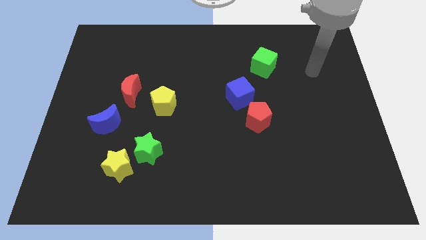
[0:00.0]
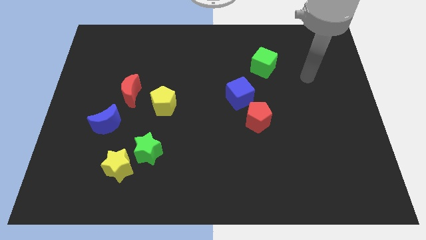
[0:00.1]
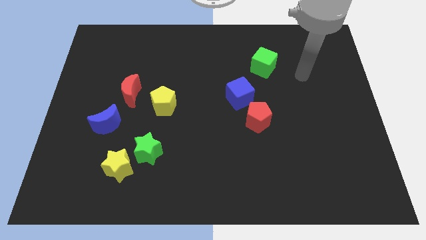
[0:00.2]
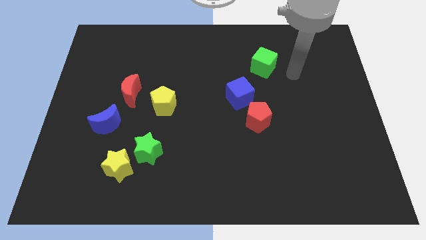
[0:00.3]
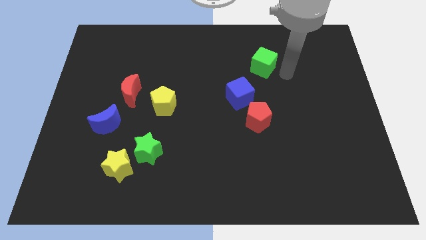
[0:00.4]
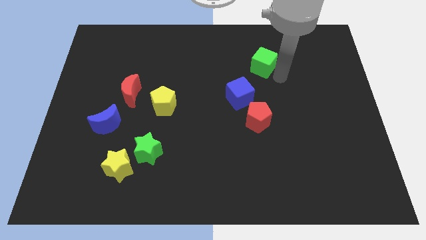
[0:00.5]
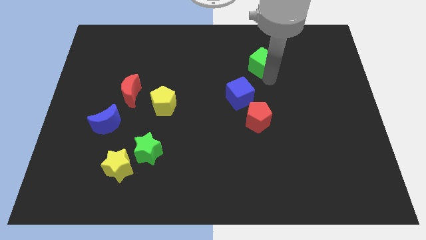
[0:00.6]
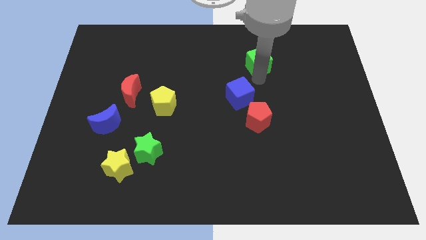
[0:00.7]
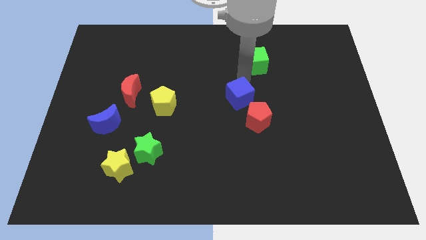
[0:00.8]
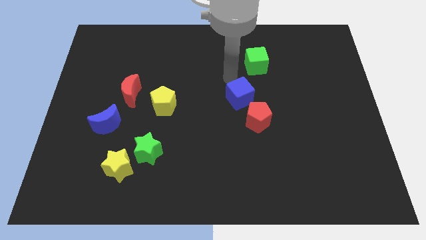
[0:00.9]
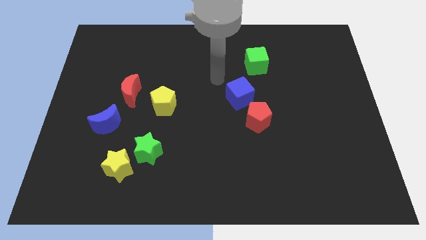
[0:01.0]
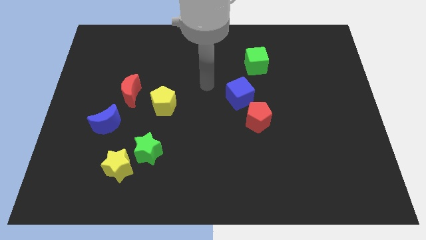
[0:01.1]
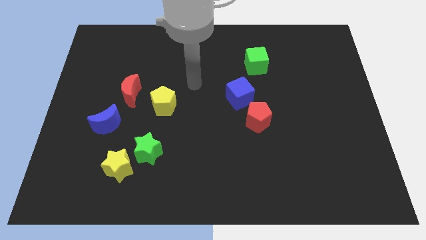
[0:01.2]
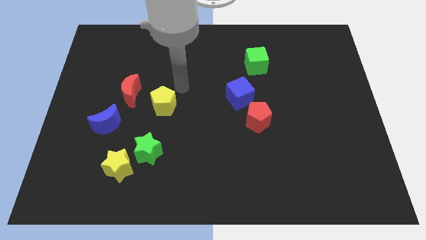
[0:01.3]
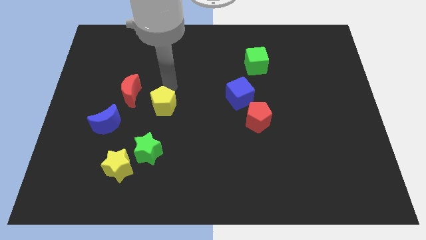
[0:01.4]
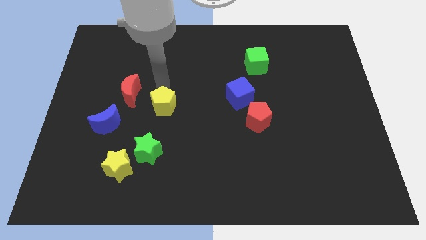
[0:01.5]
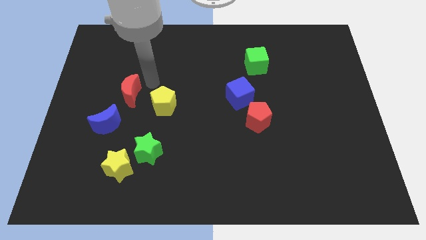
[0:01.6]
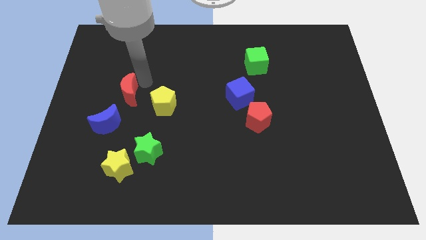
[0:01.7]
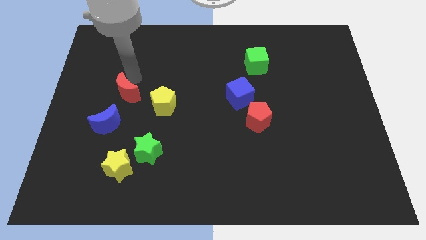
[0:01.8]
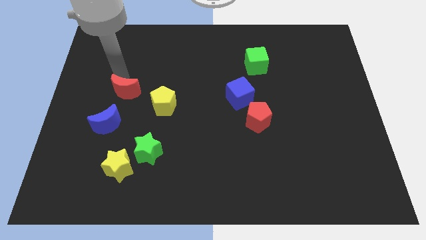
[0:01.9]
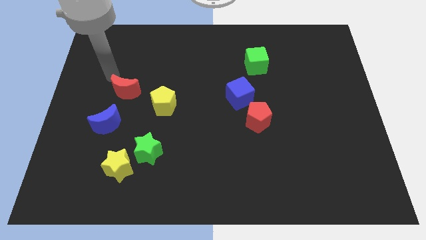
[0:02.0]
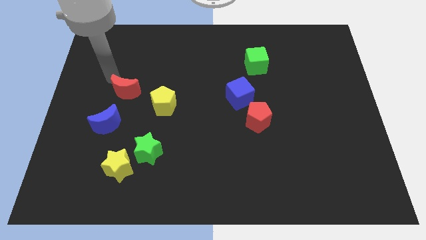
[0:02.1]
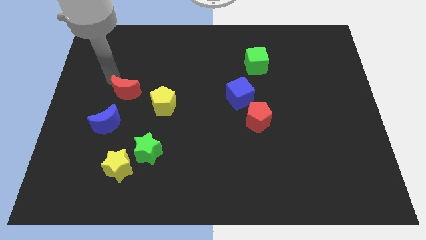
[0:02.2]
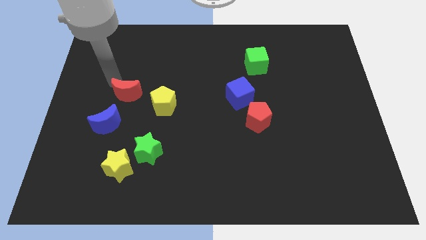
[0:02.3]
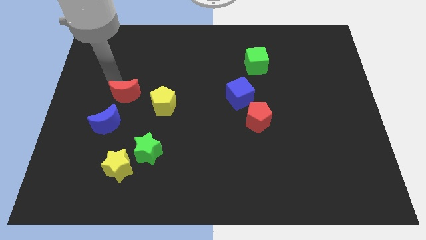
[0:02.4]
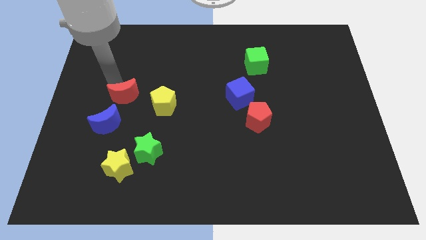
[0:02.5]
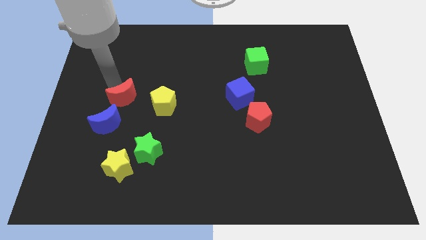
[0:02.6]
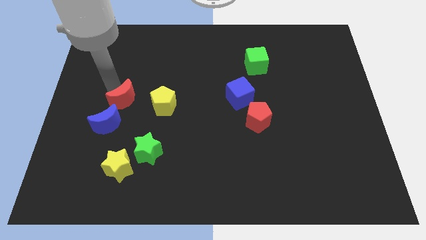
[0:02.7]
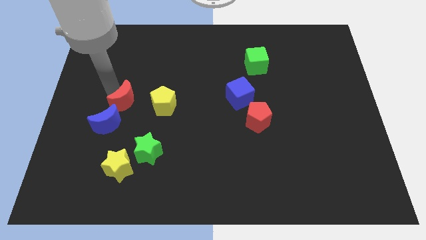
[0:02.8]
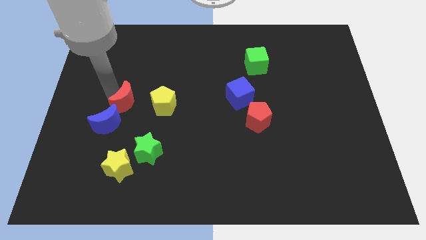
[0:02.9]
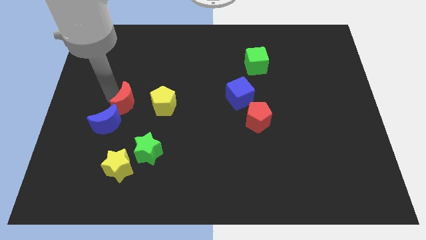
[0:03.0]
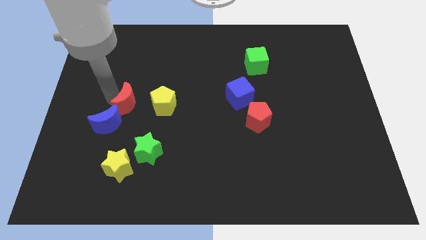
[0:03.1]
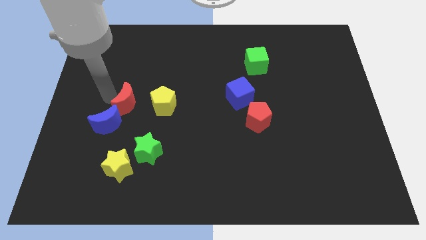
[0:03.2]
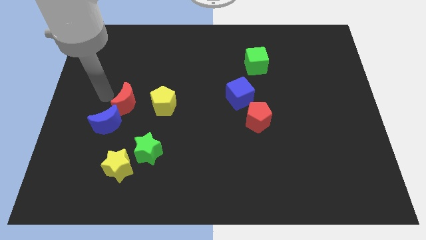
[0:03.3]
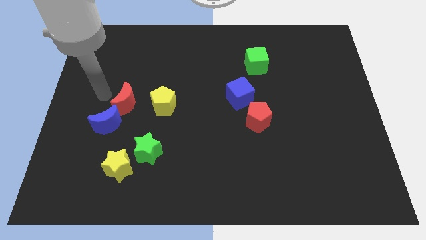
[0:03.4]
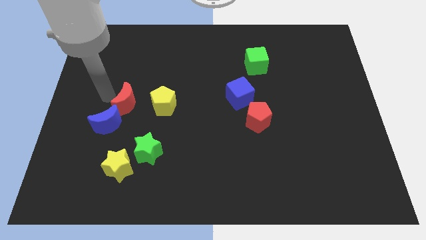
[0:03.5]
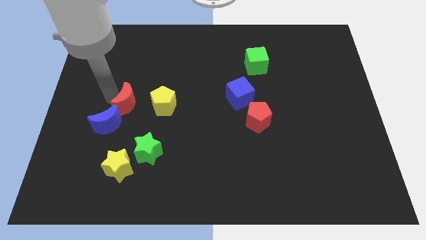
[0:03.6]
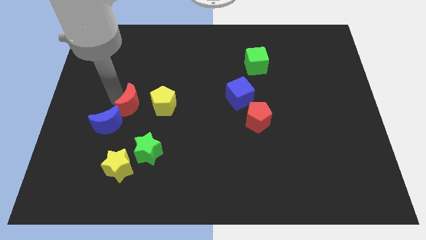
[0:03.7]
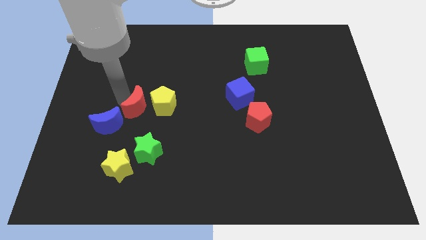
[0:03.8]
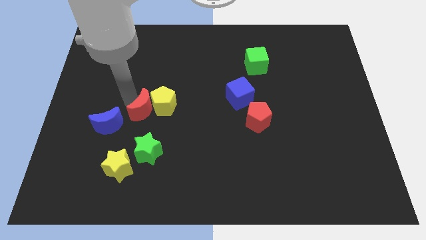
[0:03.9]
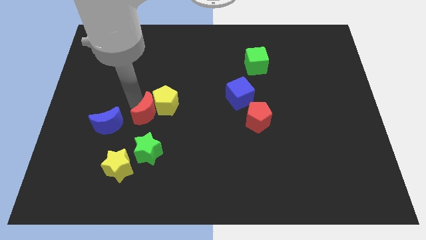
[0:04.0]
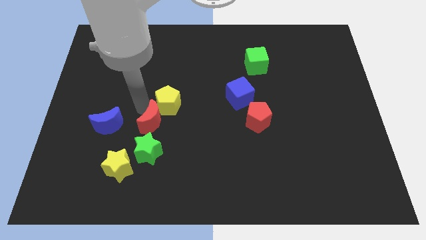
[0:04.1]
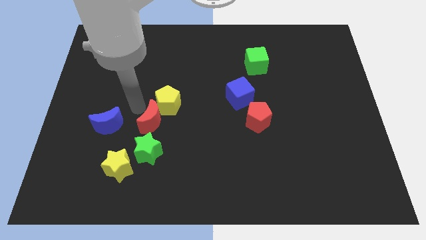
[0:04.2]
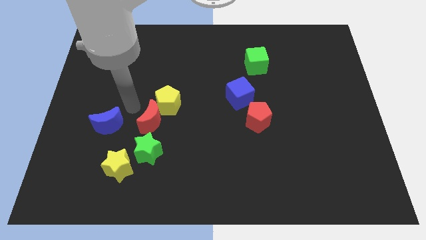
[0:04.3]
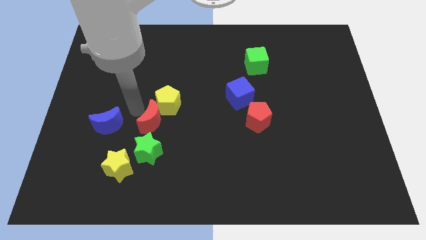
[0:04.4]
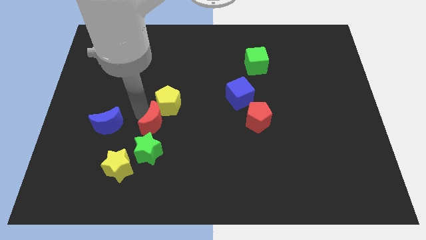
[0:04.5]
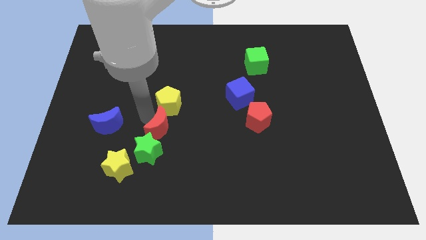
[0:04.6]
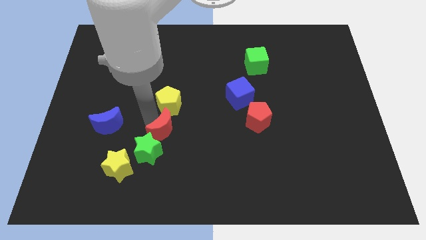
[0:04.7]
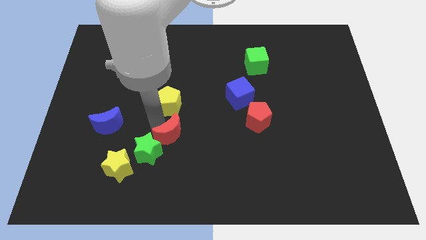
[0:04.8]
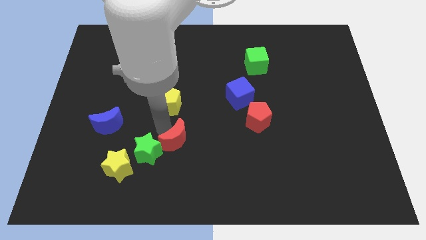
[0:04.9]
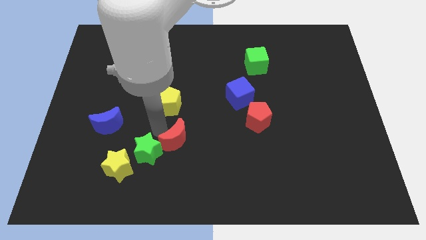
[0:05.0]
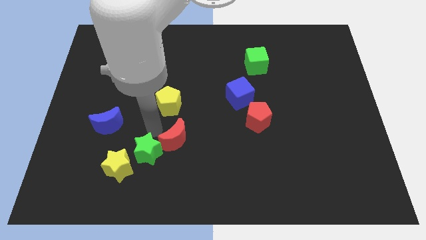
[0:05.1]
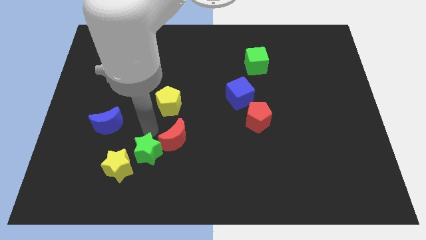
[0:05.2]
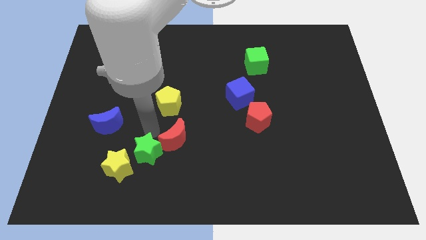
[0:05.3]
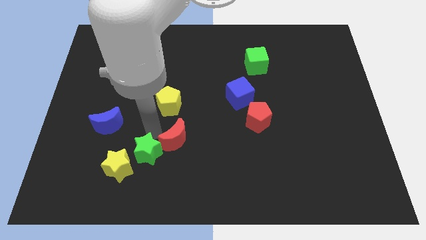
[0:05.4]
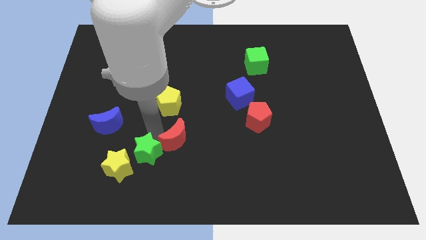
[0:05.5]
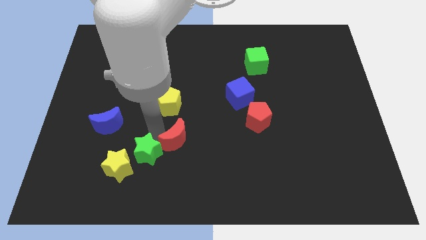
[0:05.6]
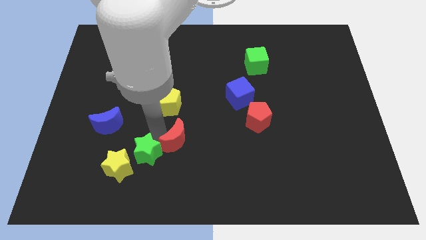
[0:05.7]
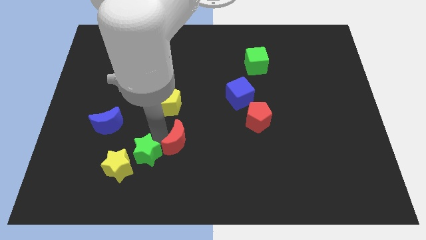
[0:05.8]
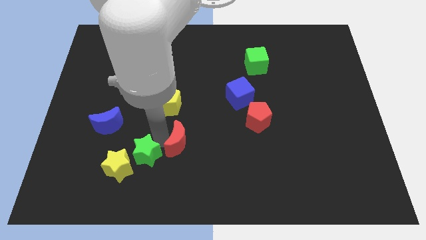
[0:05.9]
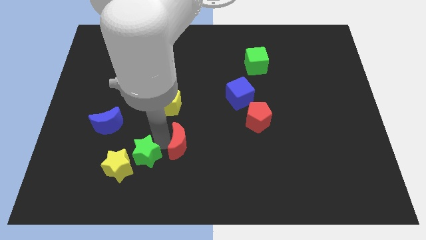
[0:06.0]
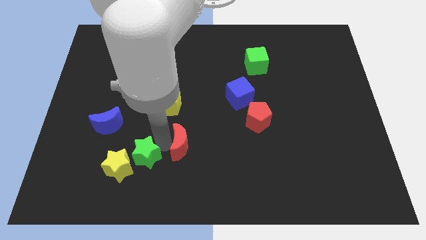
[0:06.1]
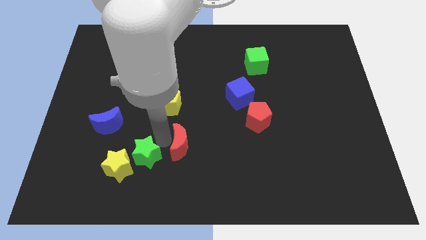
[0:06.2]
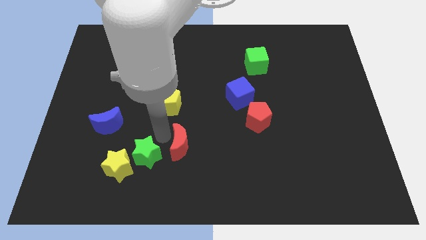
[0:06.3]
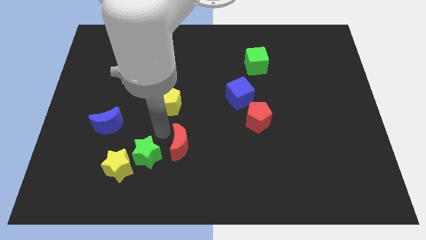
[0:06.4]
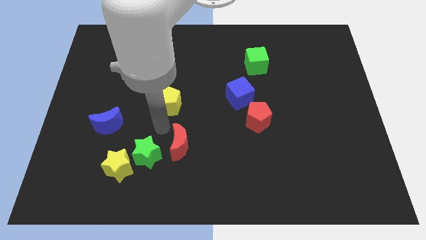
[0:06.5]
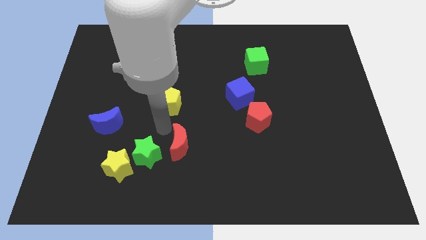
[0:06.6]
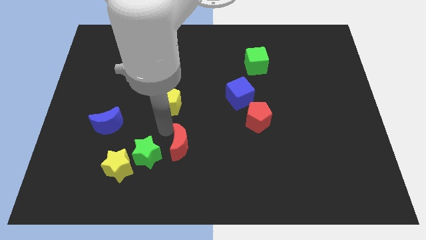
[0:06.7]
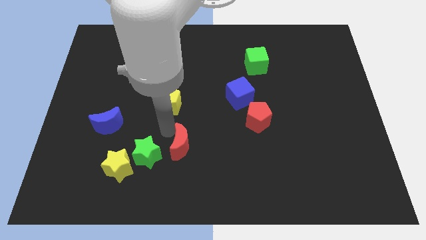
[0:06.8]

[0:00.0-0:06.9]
push the red moon downwards and to the right diagonally

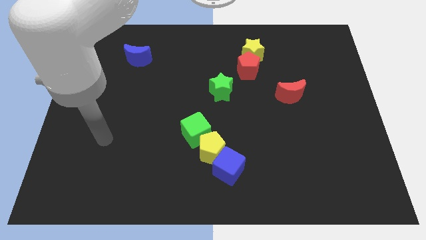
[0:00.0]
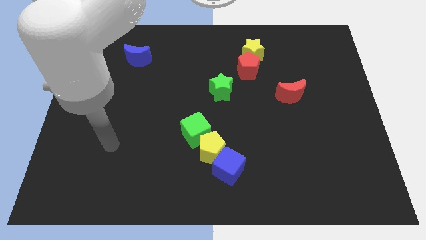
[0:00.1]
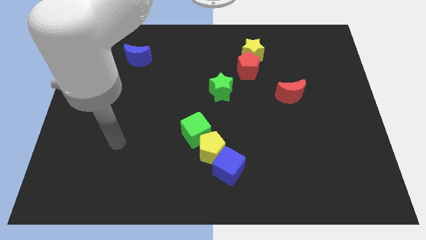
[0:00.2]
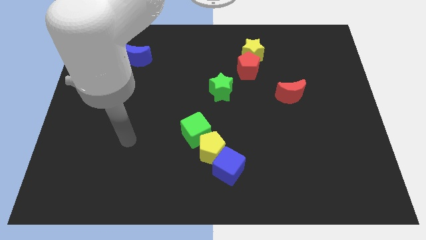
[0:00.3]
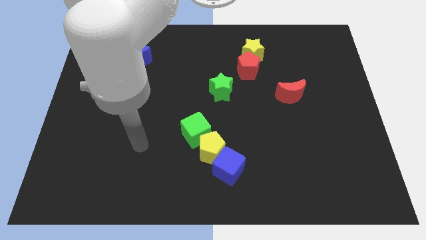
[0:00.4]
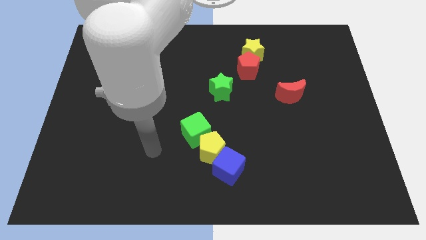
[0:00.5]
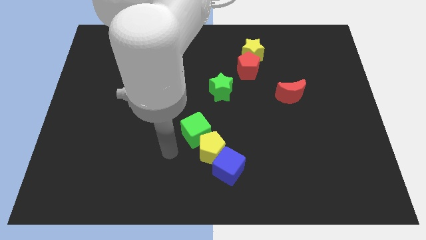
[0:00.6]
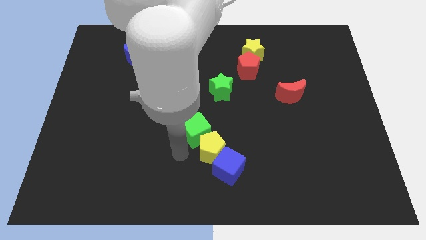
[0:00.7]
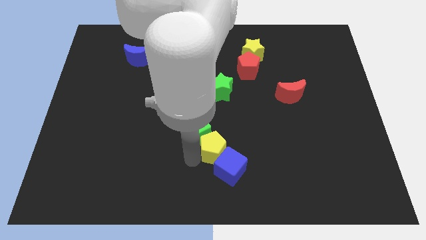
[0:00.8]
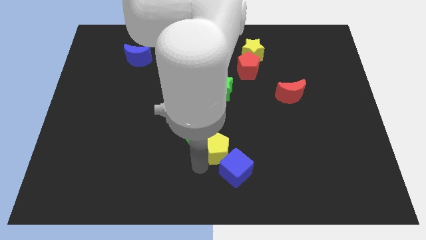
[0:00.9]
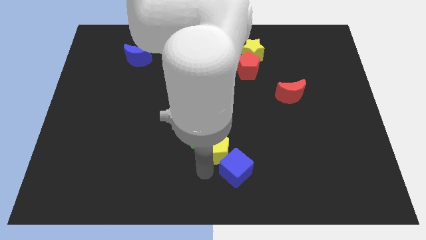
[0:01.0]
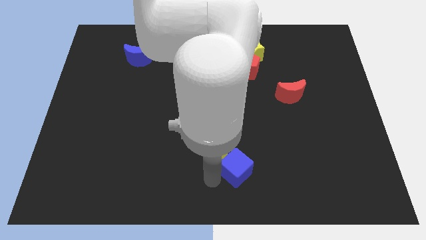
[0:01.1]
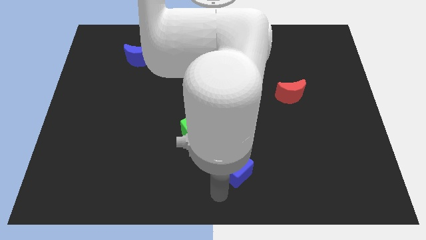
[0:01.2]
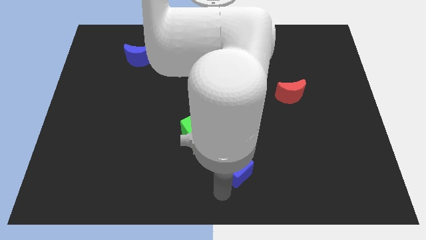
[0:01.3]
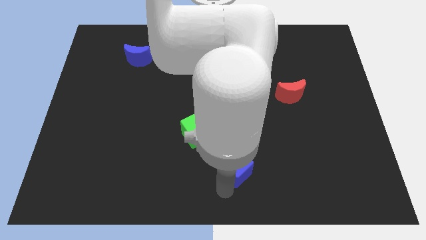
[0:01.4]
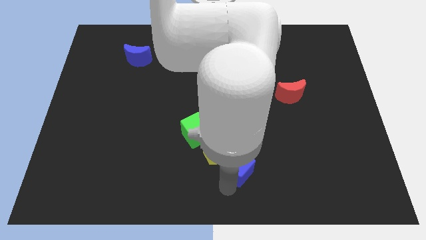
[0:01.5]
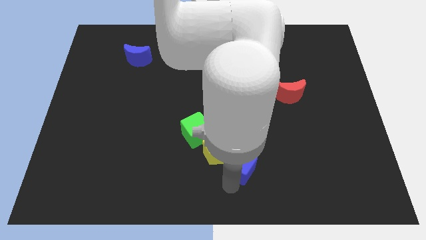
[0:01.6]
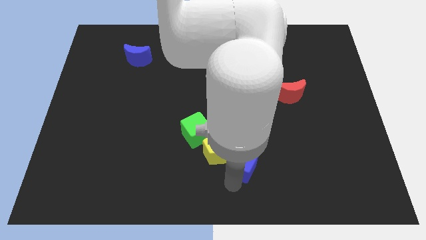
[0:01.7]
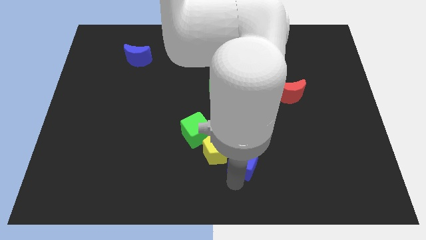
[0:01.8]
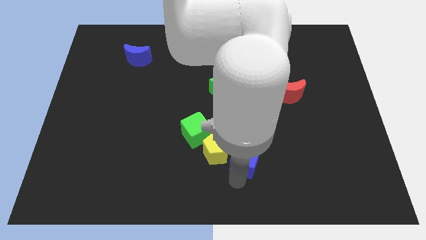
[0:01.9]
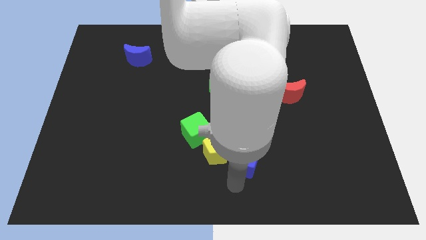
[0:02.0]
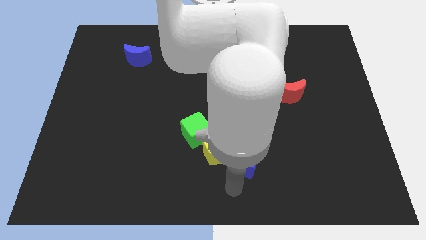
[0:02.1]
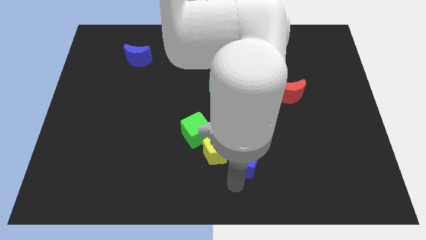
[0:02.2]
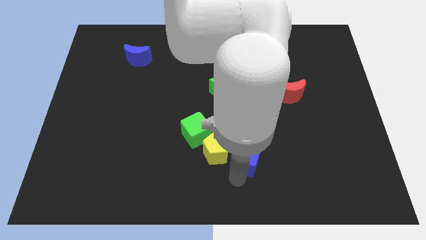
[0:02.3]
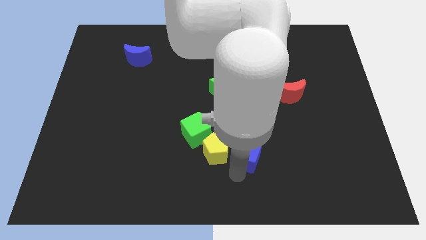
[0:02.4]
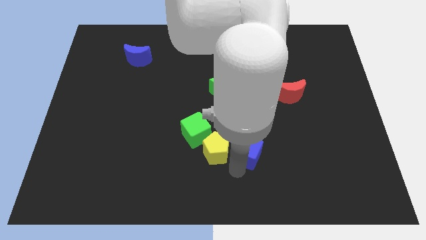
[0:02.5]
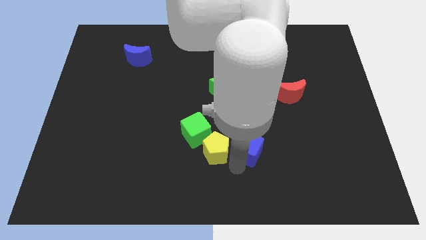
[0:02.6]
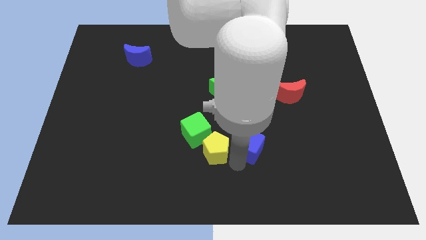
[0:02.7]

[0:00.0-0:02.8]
slightly move the blue cube up and then right
